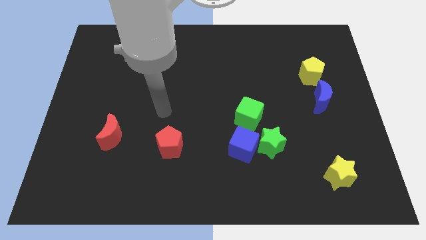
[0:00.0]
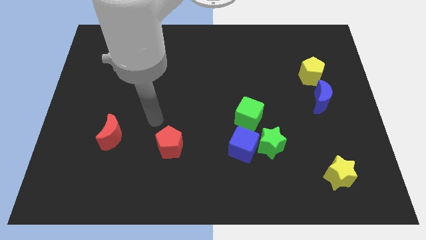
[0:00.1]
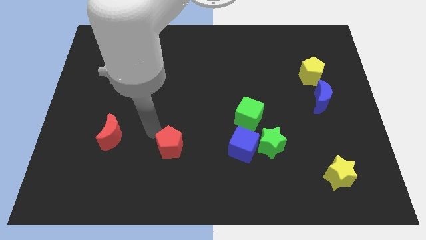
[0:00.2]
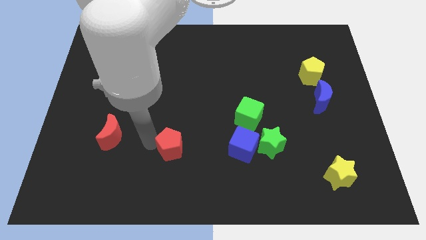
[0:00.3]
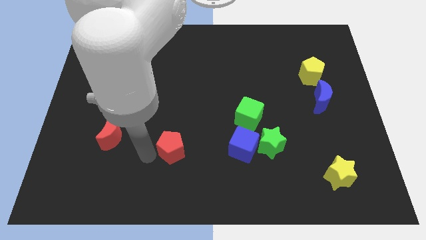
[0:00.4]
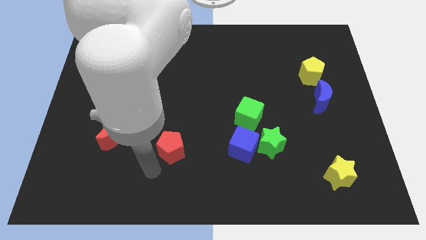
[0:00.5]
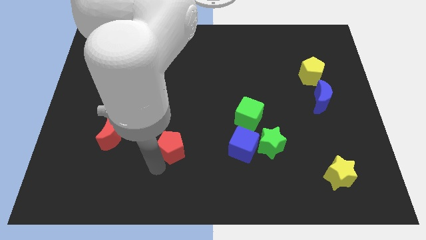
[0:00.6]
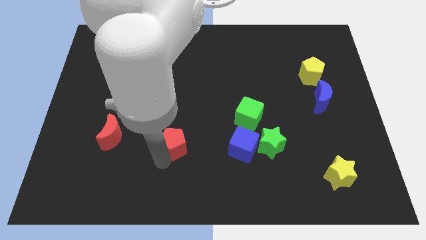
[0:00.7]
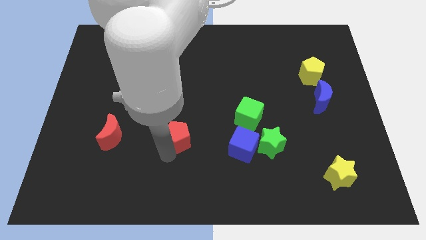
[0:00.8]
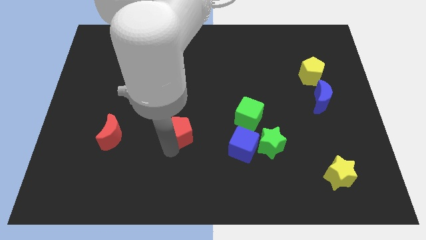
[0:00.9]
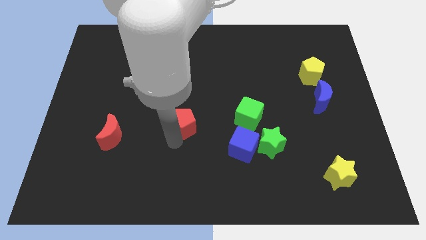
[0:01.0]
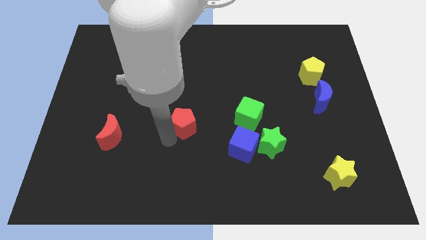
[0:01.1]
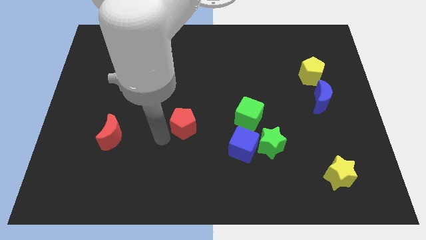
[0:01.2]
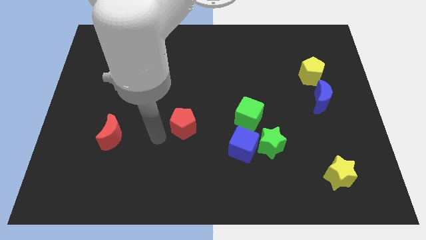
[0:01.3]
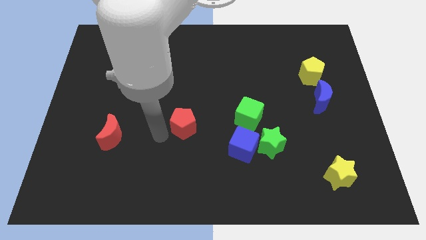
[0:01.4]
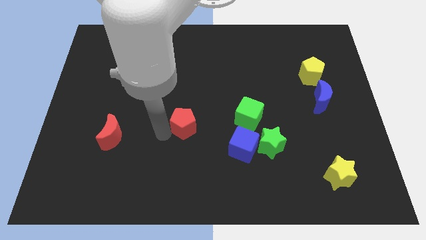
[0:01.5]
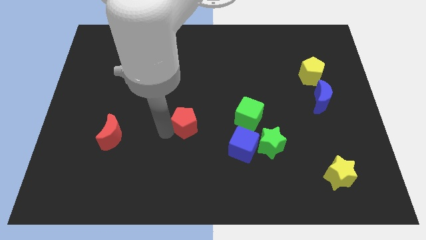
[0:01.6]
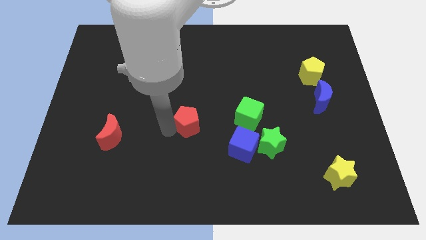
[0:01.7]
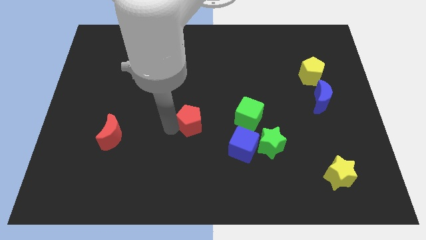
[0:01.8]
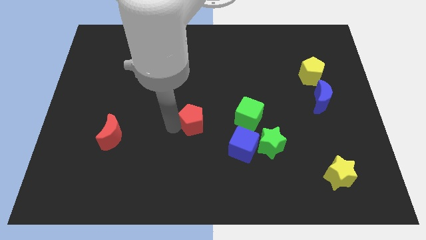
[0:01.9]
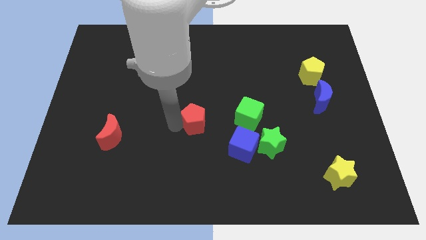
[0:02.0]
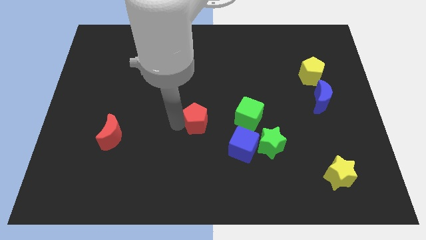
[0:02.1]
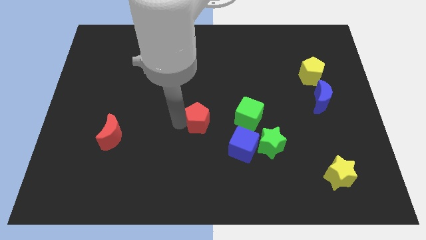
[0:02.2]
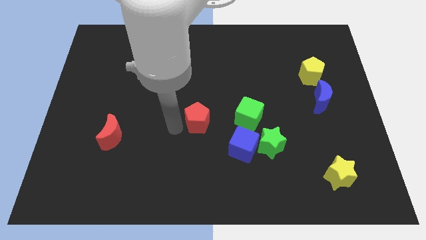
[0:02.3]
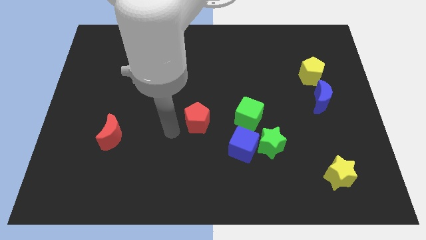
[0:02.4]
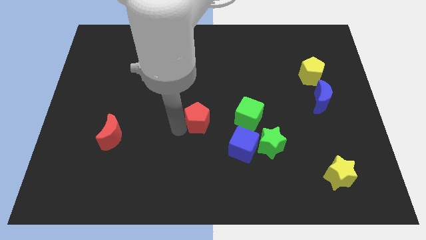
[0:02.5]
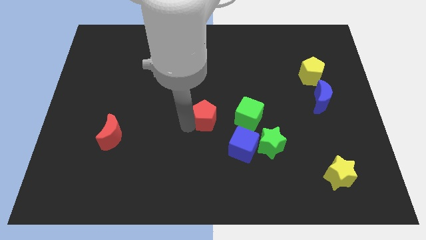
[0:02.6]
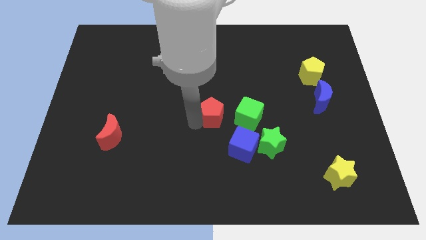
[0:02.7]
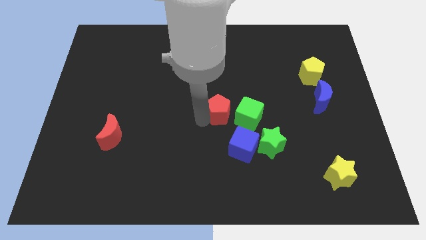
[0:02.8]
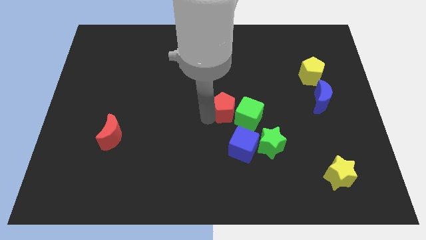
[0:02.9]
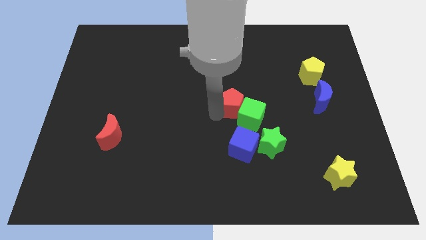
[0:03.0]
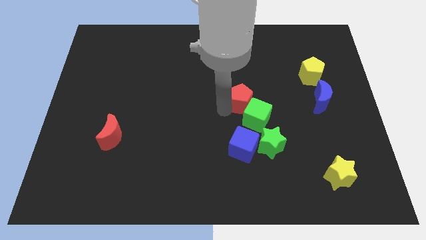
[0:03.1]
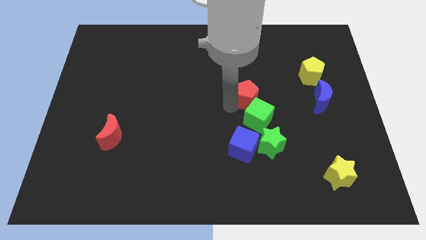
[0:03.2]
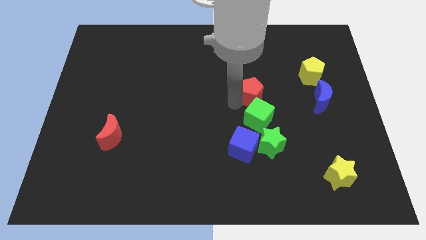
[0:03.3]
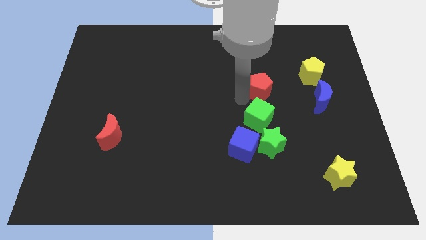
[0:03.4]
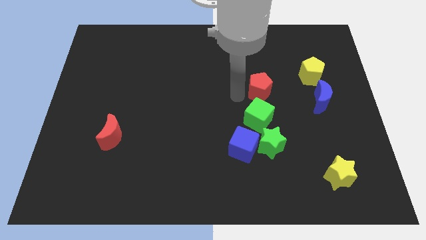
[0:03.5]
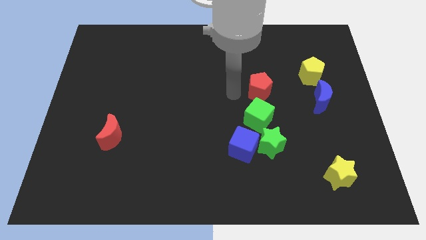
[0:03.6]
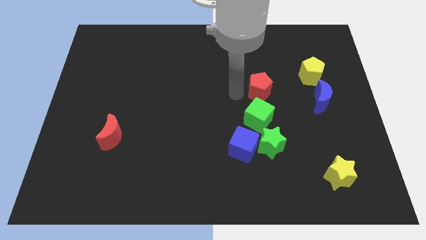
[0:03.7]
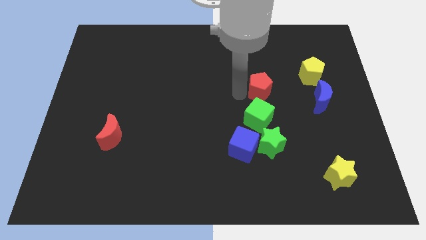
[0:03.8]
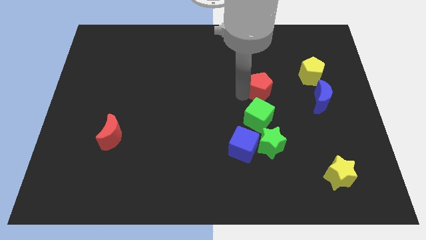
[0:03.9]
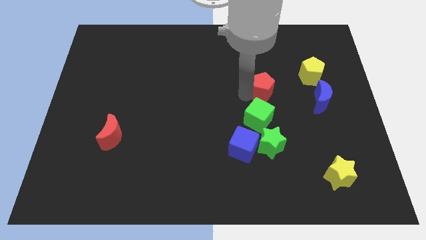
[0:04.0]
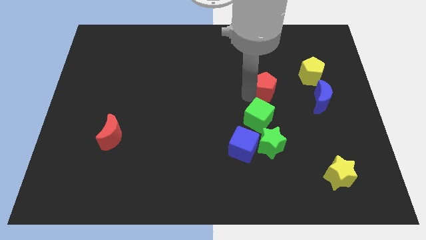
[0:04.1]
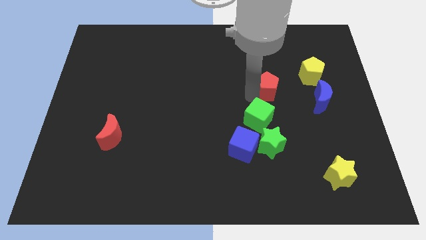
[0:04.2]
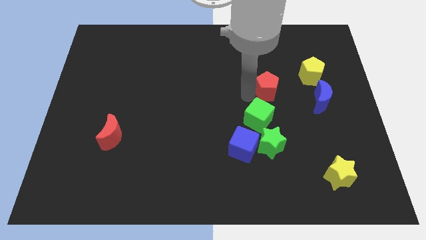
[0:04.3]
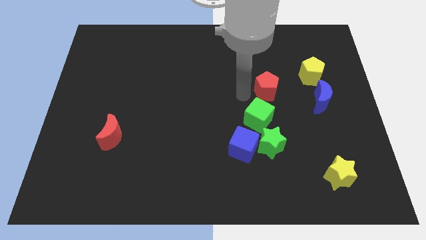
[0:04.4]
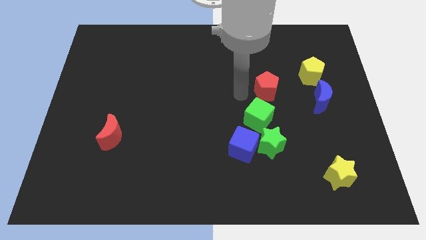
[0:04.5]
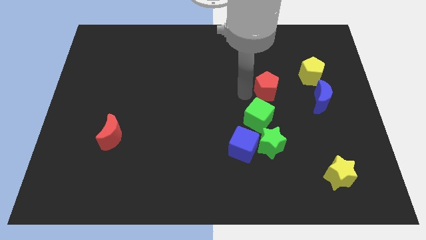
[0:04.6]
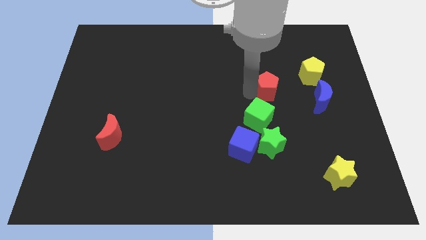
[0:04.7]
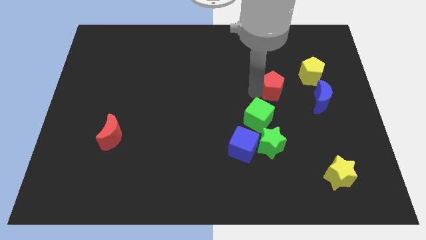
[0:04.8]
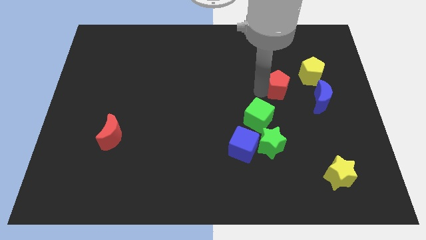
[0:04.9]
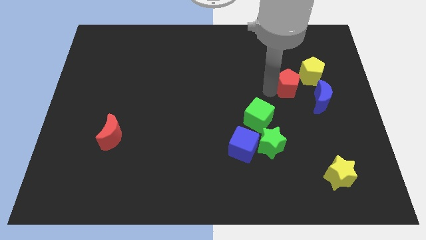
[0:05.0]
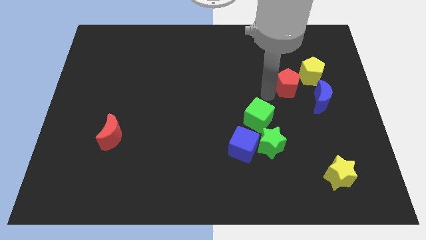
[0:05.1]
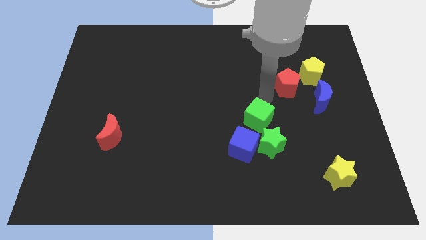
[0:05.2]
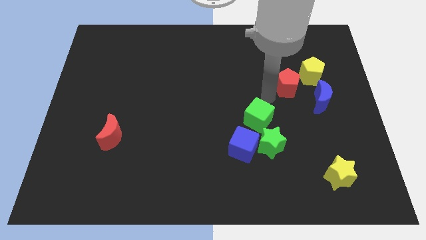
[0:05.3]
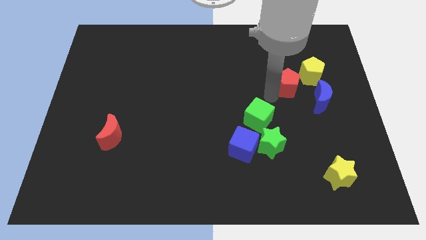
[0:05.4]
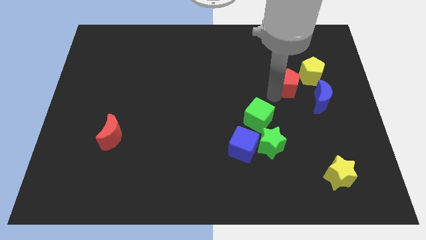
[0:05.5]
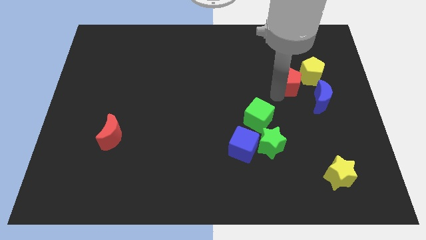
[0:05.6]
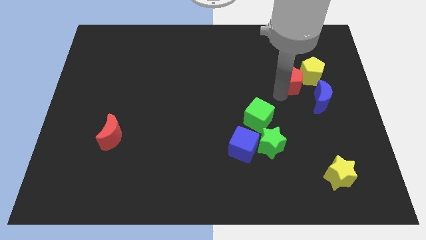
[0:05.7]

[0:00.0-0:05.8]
move the red pentagon to the yellow pentagon

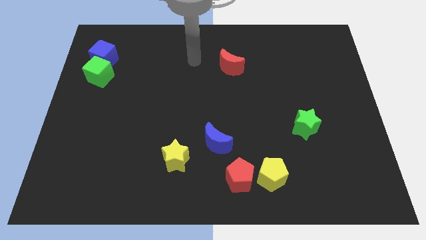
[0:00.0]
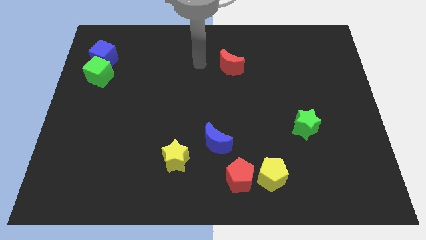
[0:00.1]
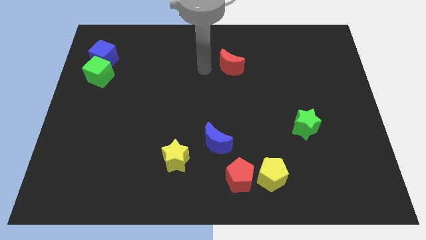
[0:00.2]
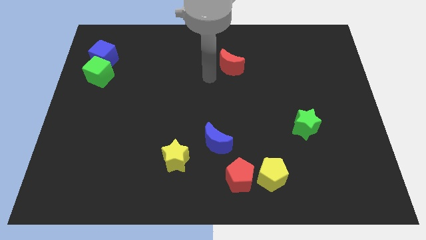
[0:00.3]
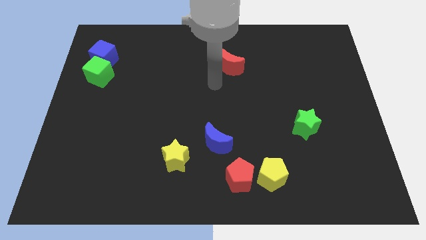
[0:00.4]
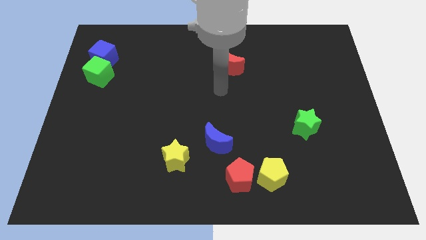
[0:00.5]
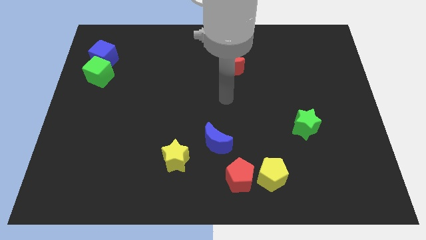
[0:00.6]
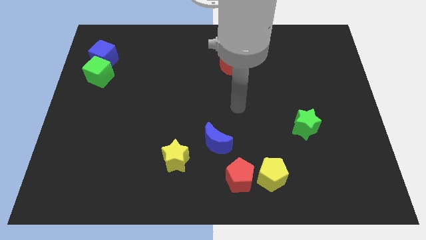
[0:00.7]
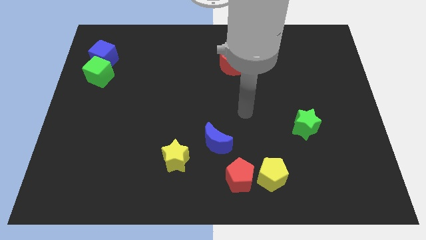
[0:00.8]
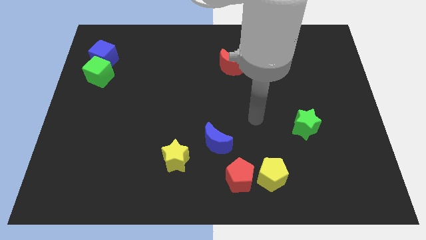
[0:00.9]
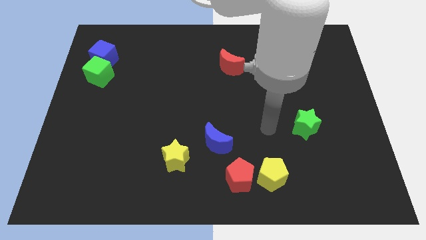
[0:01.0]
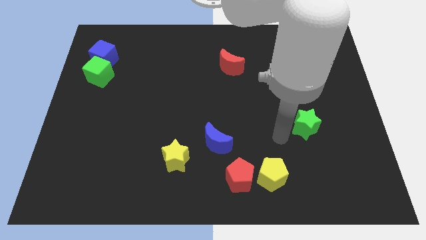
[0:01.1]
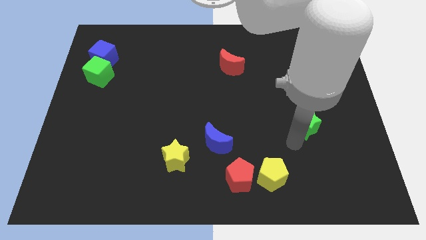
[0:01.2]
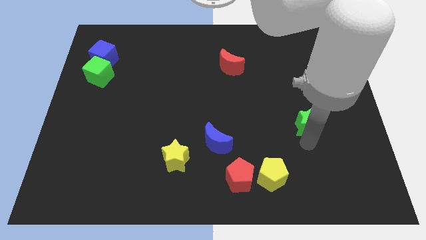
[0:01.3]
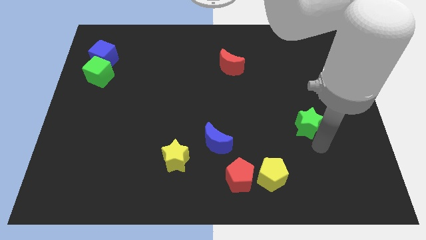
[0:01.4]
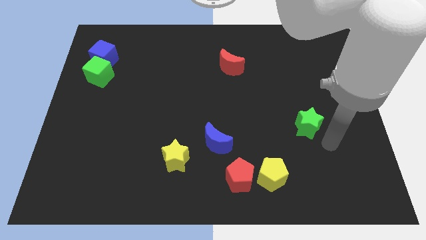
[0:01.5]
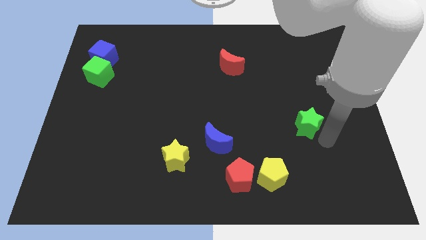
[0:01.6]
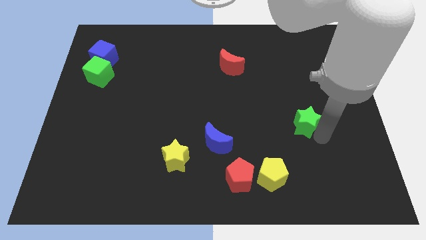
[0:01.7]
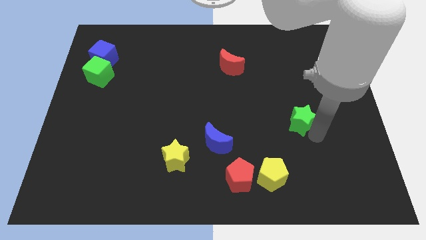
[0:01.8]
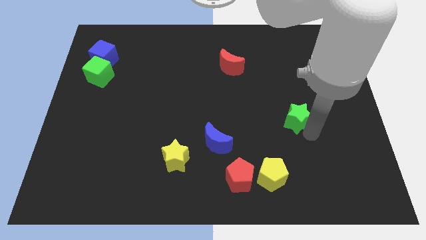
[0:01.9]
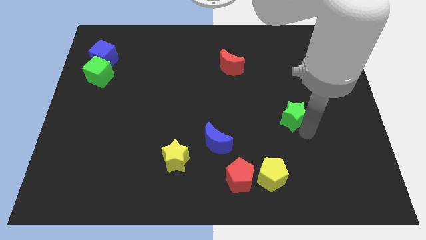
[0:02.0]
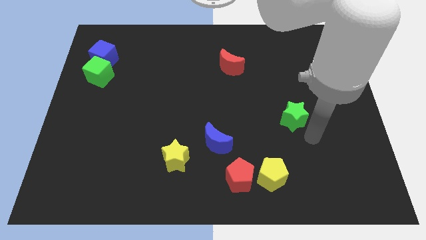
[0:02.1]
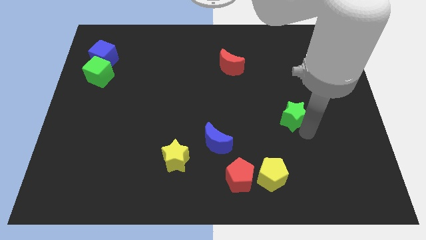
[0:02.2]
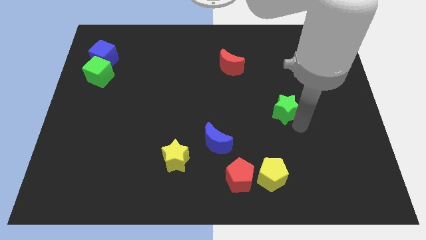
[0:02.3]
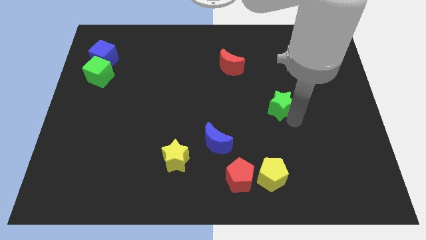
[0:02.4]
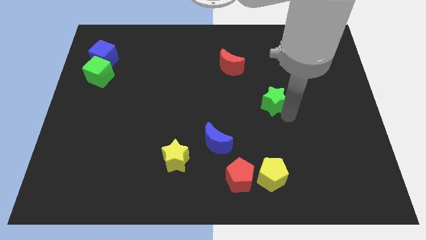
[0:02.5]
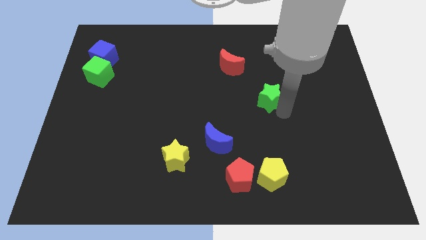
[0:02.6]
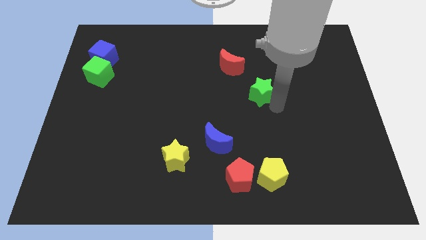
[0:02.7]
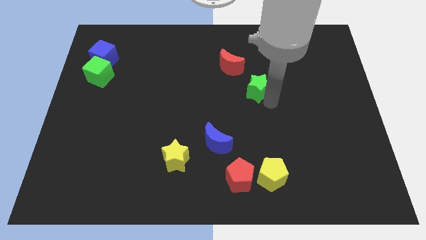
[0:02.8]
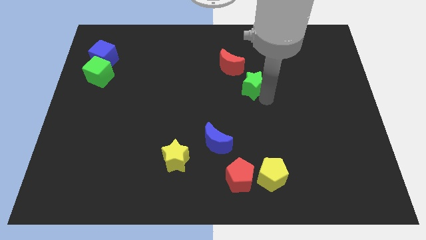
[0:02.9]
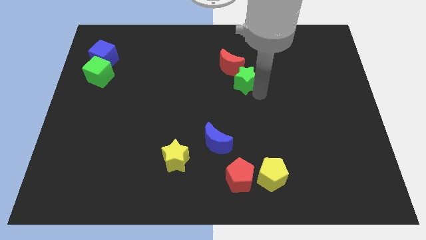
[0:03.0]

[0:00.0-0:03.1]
move the green star to the red moon
